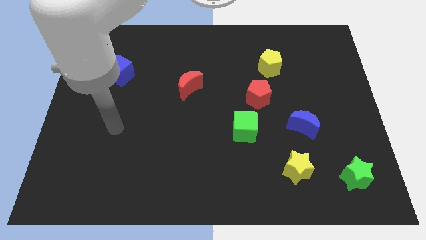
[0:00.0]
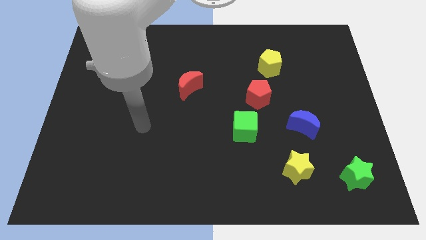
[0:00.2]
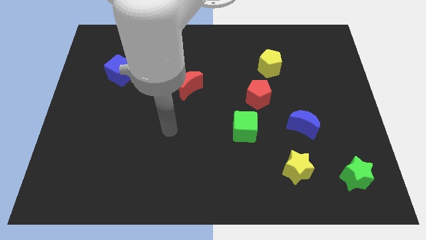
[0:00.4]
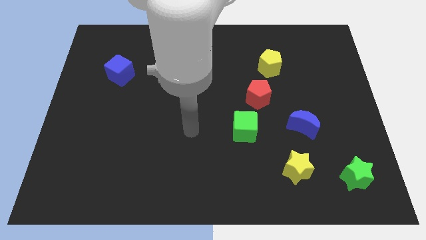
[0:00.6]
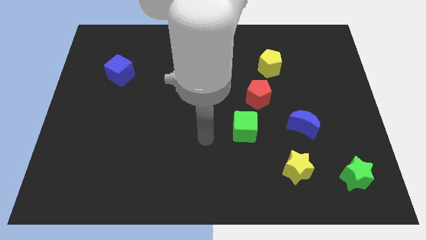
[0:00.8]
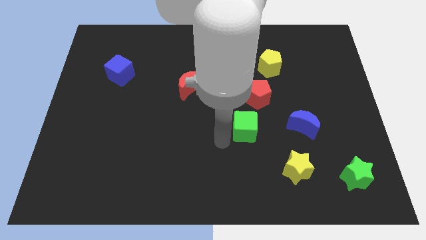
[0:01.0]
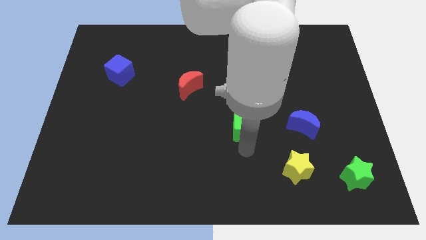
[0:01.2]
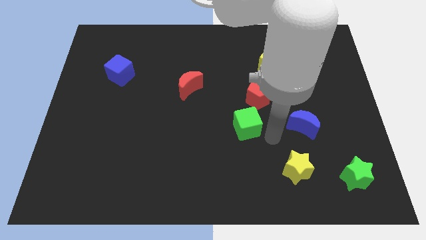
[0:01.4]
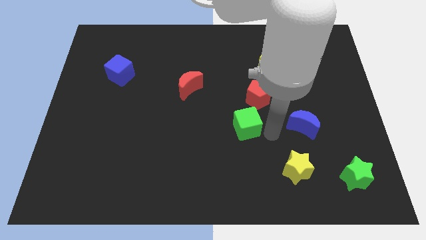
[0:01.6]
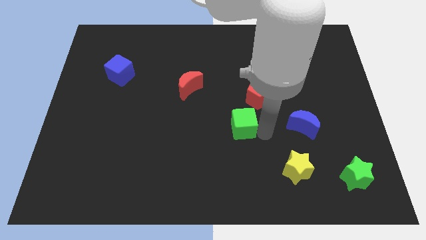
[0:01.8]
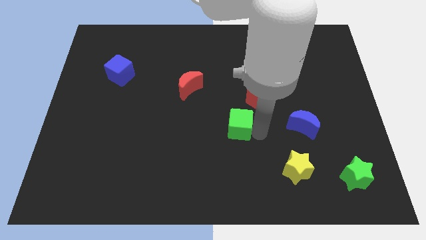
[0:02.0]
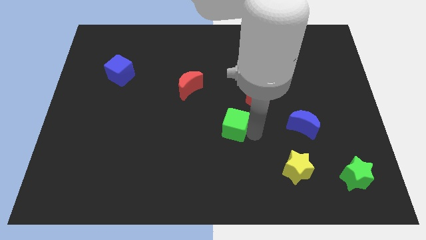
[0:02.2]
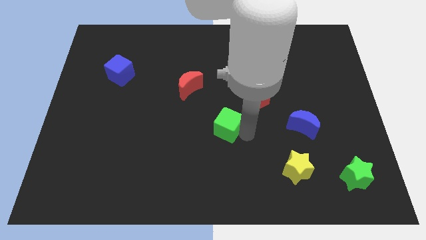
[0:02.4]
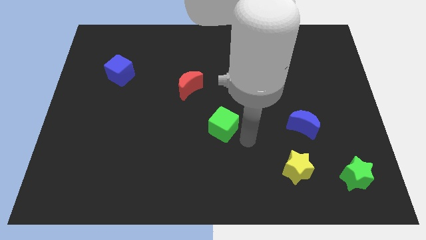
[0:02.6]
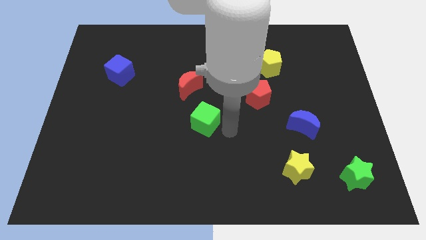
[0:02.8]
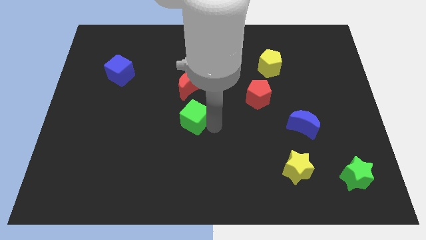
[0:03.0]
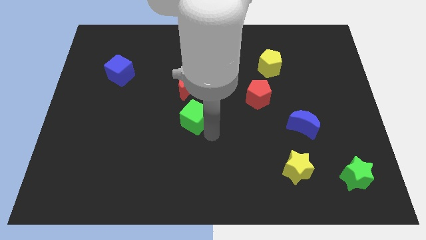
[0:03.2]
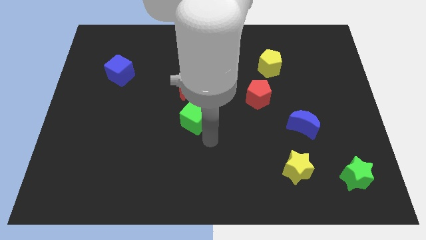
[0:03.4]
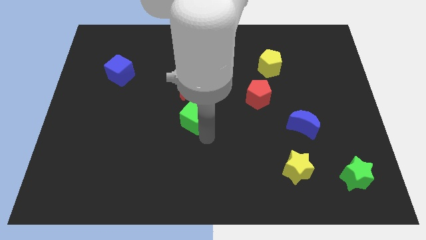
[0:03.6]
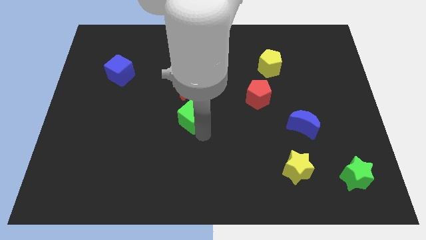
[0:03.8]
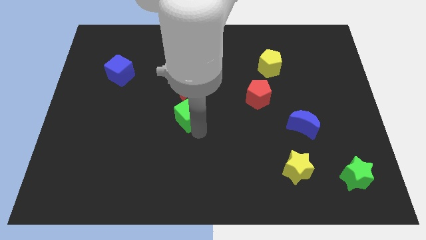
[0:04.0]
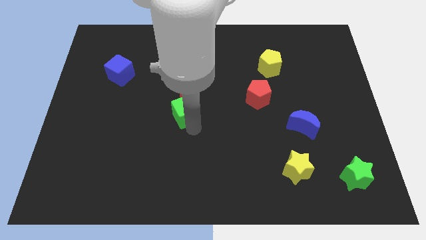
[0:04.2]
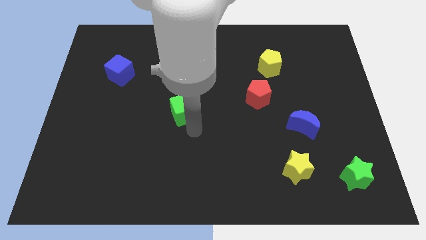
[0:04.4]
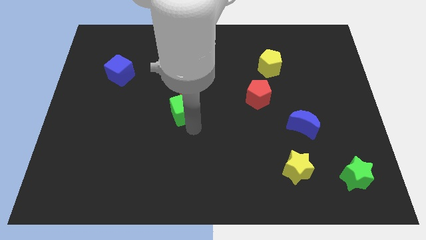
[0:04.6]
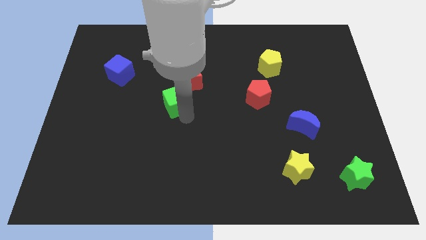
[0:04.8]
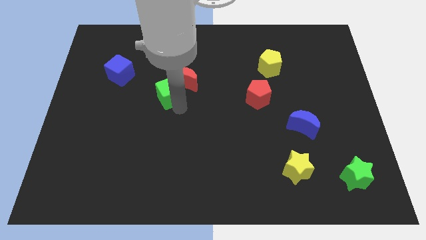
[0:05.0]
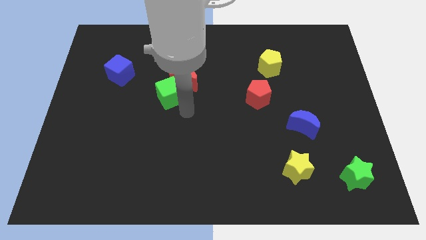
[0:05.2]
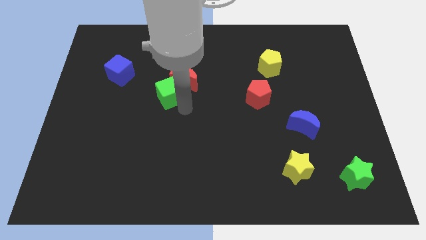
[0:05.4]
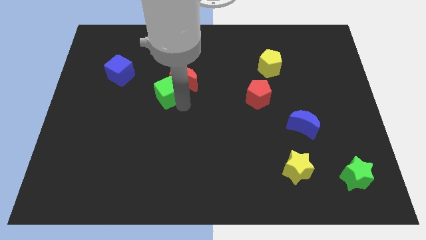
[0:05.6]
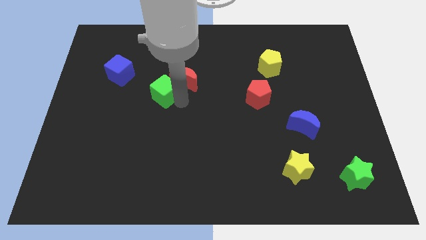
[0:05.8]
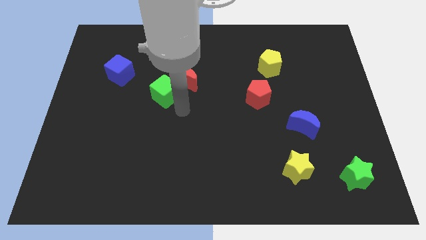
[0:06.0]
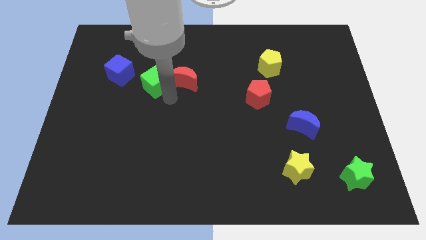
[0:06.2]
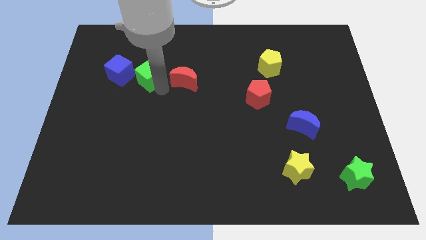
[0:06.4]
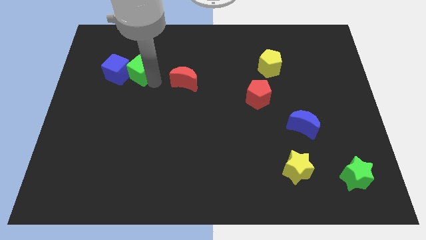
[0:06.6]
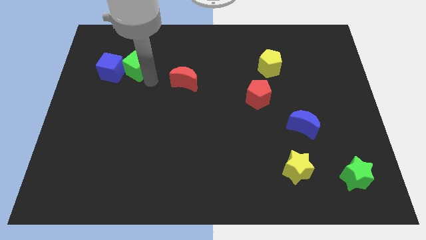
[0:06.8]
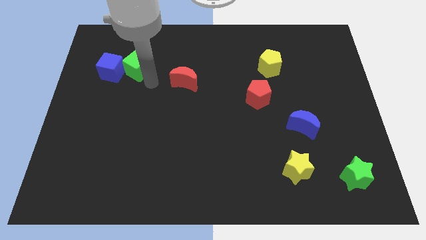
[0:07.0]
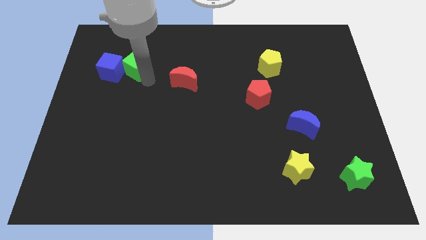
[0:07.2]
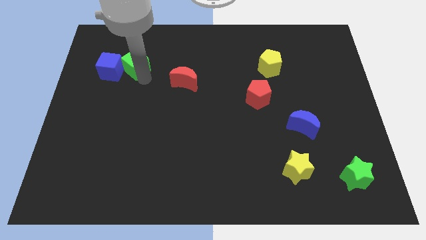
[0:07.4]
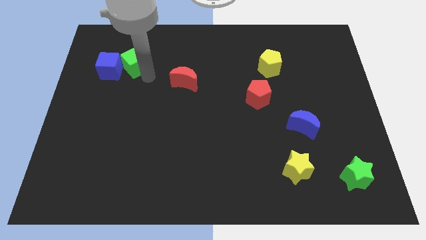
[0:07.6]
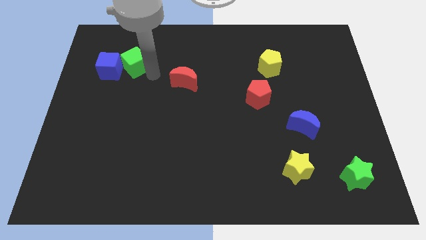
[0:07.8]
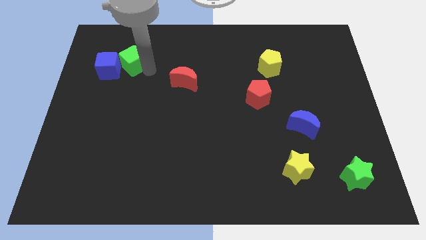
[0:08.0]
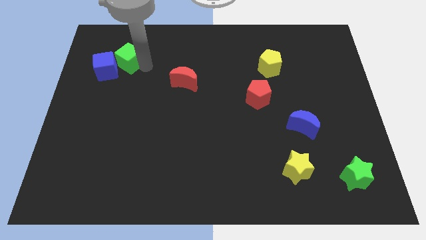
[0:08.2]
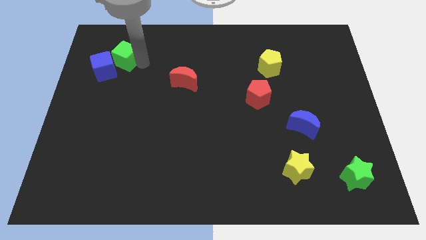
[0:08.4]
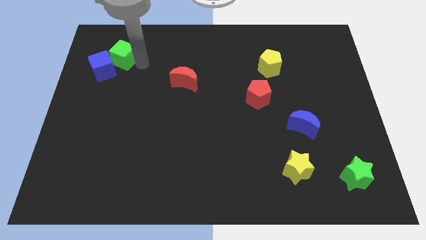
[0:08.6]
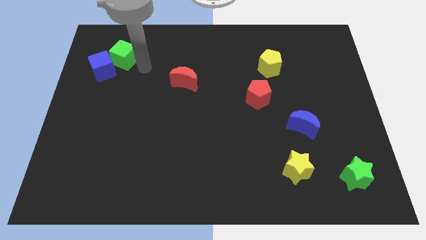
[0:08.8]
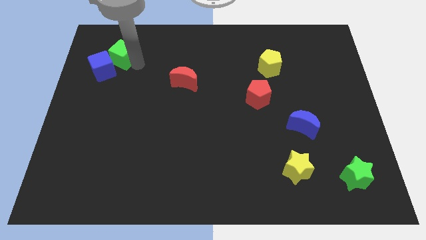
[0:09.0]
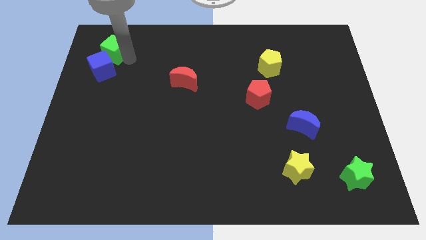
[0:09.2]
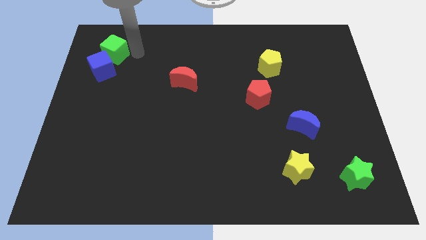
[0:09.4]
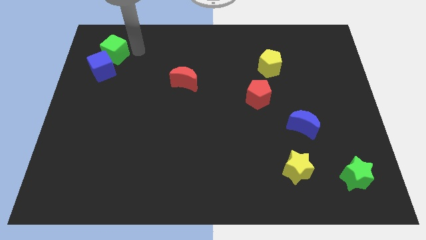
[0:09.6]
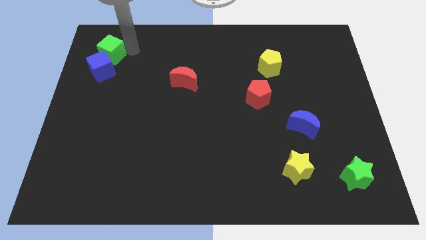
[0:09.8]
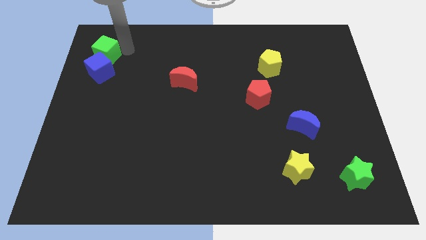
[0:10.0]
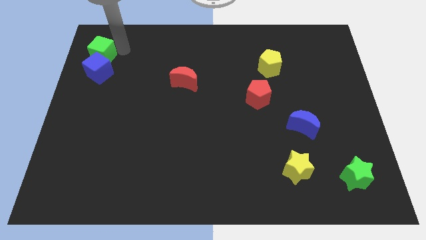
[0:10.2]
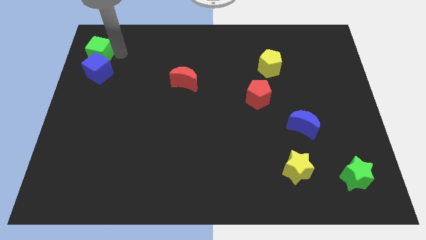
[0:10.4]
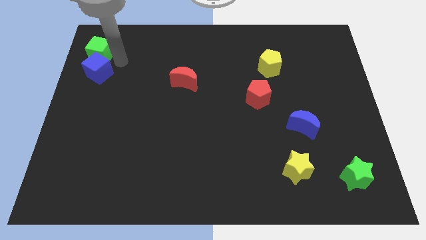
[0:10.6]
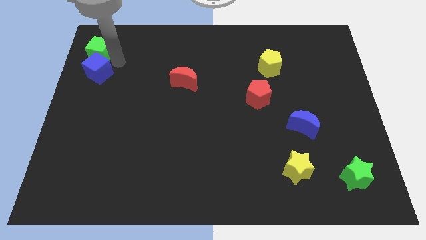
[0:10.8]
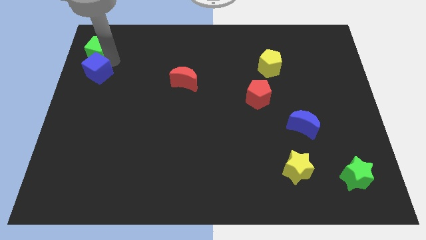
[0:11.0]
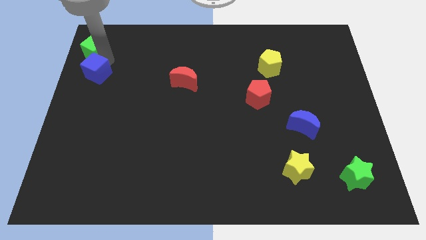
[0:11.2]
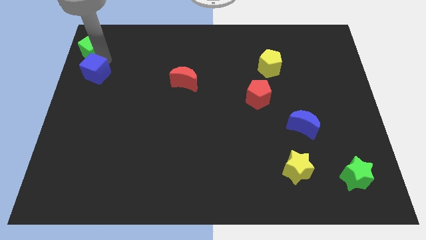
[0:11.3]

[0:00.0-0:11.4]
put the green cube to the upper left corner

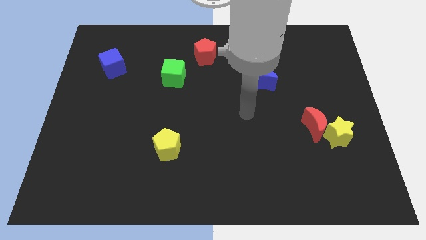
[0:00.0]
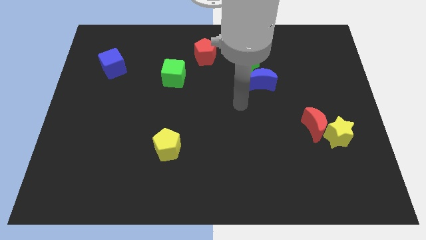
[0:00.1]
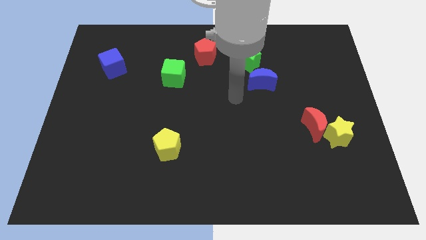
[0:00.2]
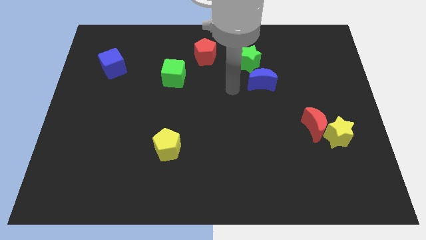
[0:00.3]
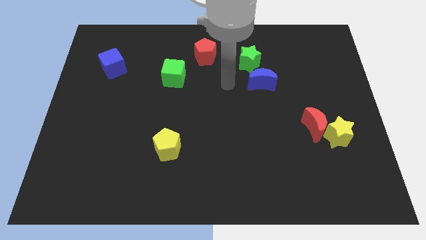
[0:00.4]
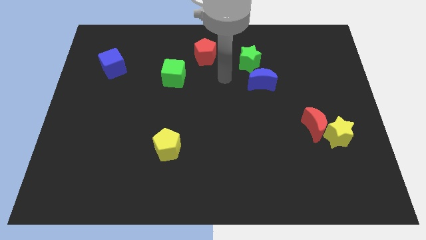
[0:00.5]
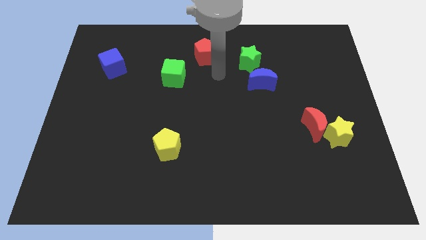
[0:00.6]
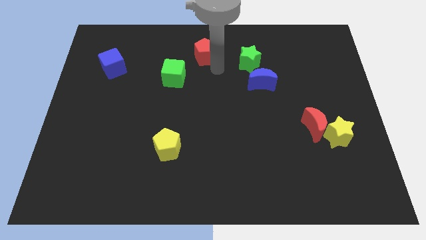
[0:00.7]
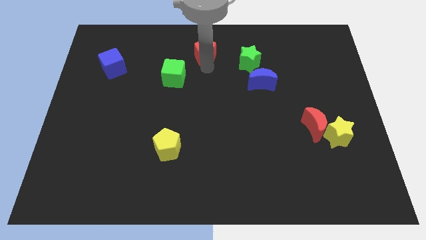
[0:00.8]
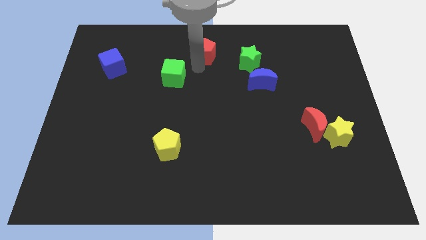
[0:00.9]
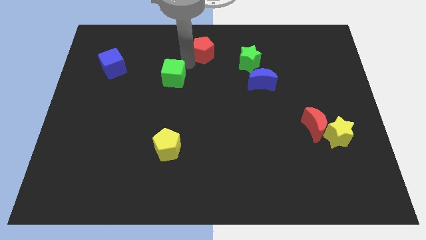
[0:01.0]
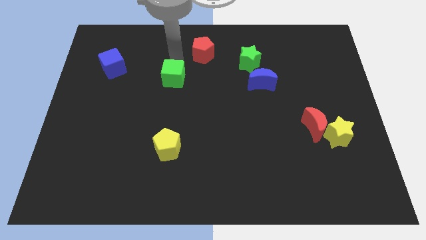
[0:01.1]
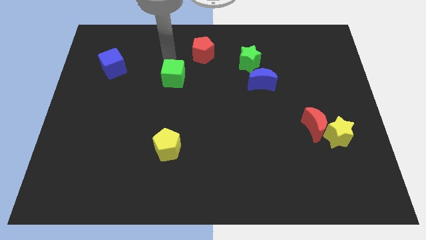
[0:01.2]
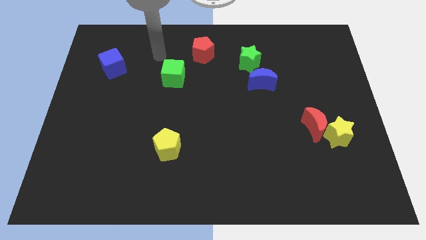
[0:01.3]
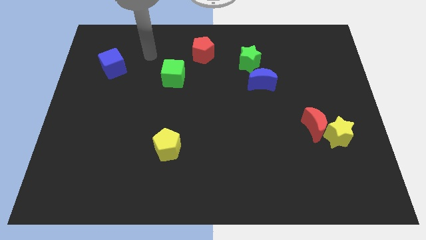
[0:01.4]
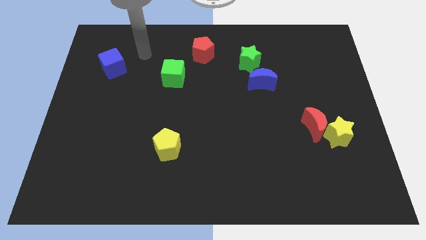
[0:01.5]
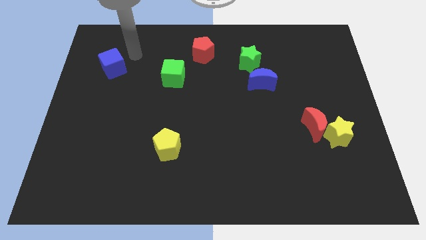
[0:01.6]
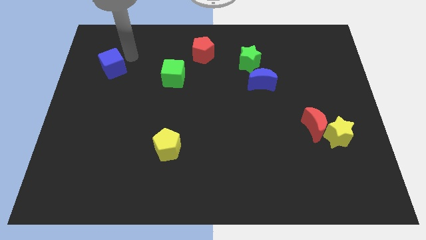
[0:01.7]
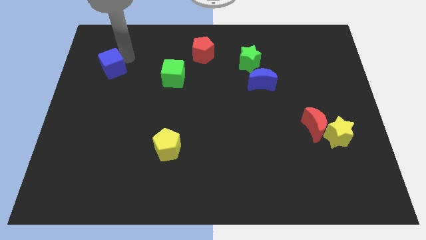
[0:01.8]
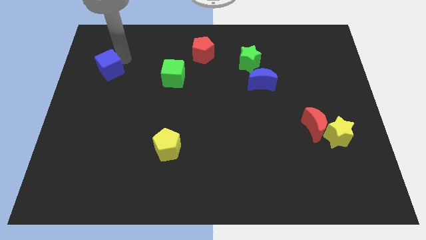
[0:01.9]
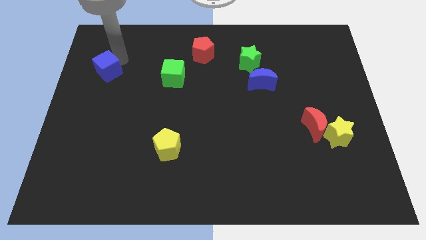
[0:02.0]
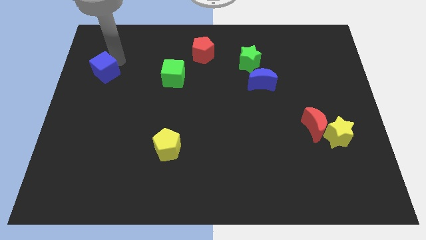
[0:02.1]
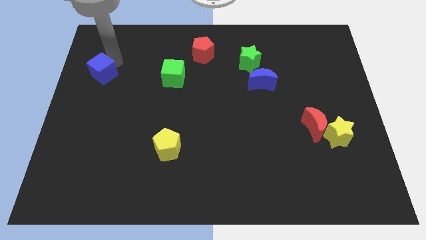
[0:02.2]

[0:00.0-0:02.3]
push the blue cube to the left side

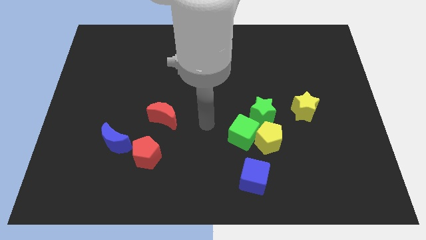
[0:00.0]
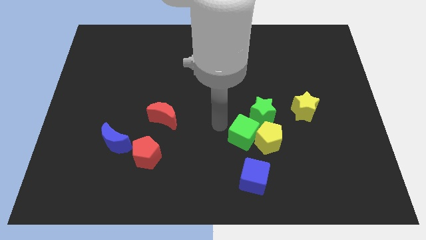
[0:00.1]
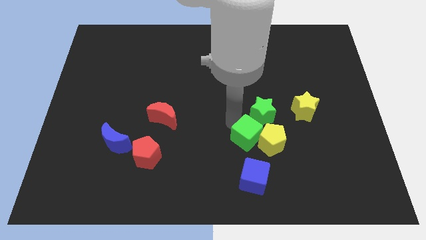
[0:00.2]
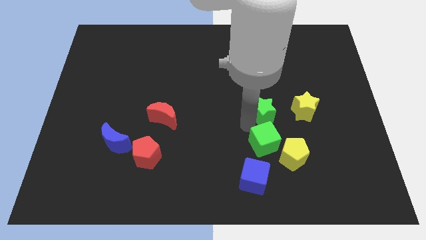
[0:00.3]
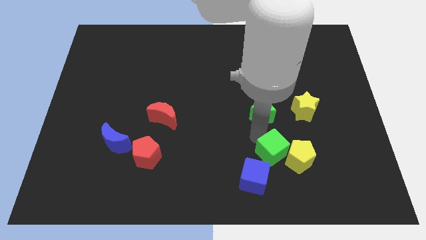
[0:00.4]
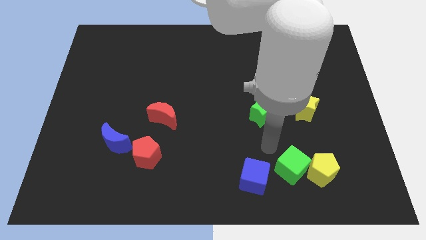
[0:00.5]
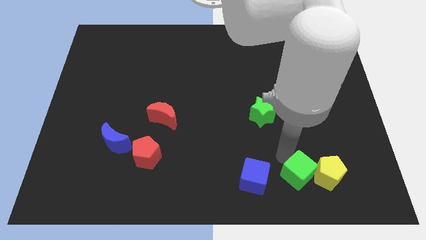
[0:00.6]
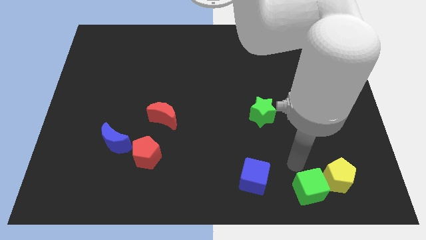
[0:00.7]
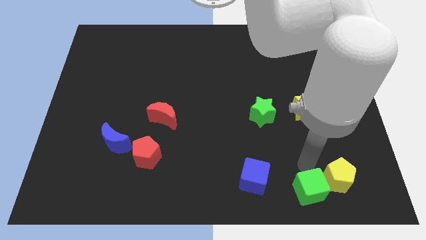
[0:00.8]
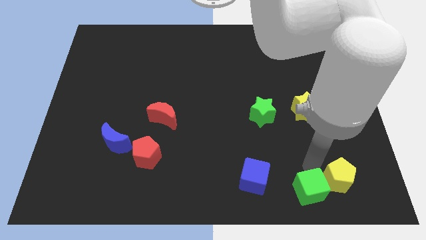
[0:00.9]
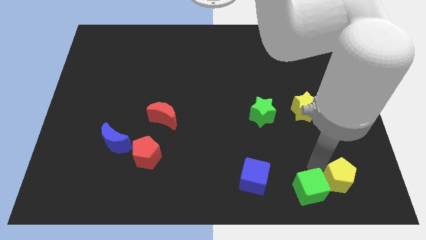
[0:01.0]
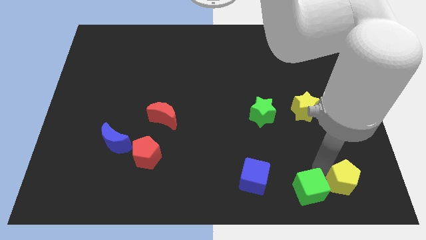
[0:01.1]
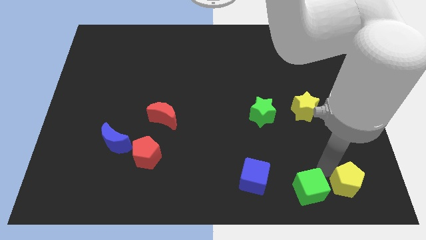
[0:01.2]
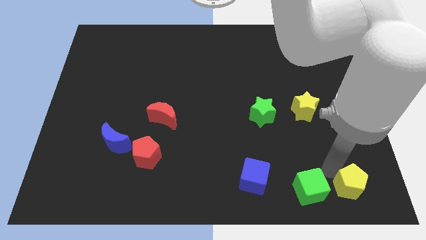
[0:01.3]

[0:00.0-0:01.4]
move the yellow pentagon to the bottom right of the board
